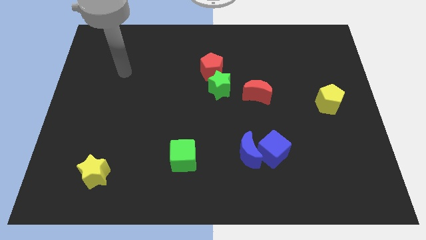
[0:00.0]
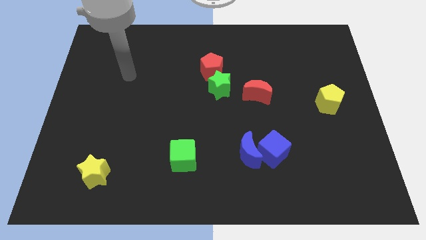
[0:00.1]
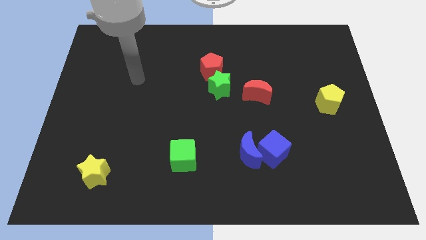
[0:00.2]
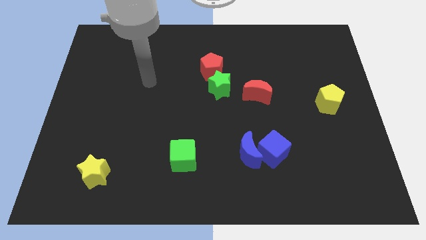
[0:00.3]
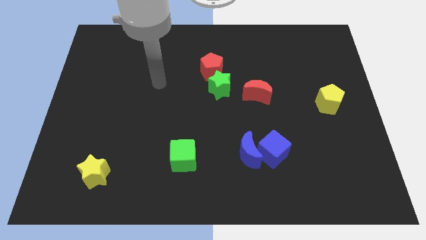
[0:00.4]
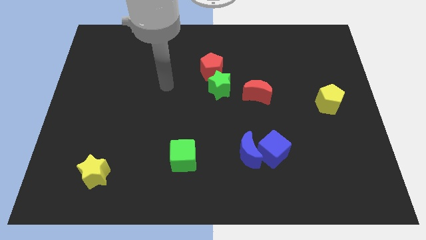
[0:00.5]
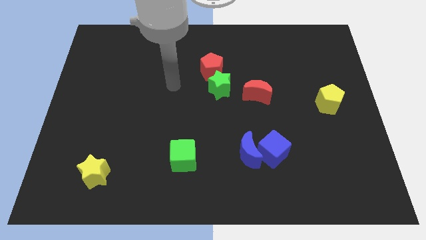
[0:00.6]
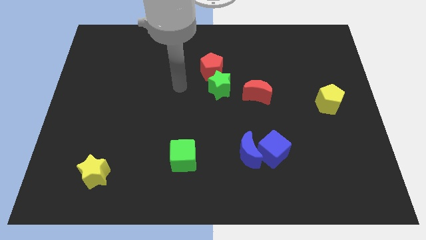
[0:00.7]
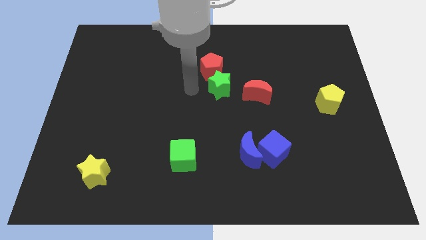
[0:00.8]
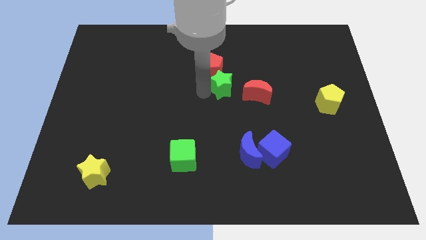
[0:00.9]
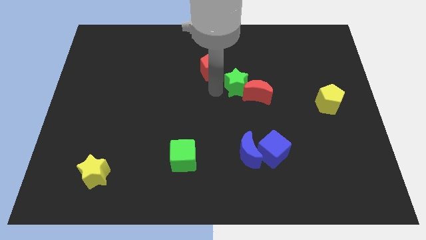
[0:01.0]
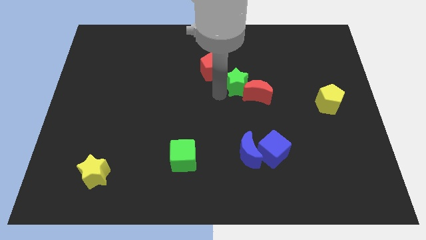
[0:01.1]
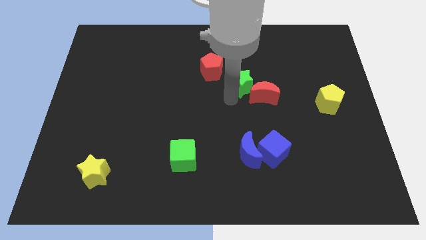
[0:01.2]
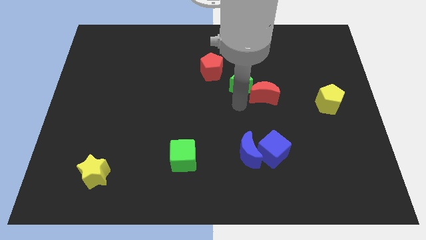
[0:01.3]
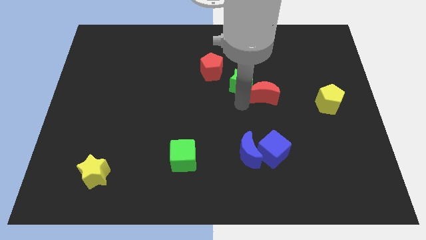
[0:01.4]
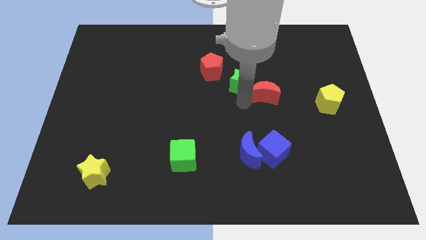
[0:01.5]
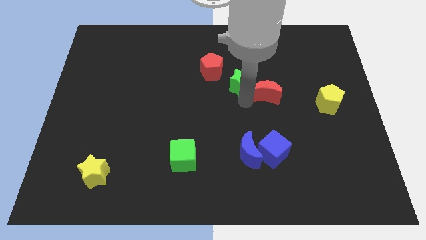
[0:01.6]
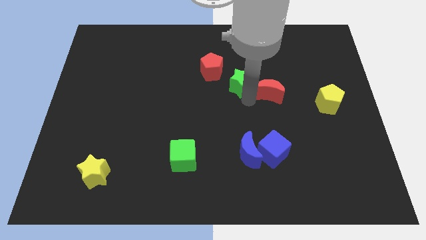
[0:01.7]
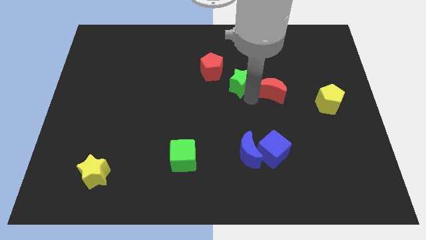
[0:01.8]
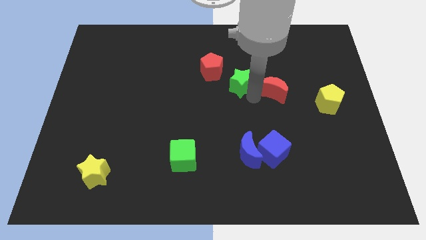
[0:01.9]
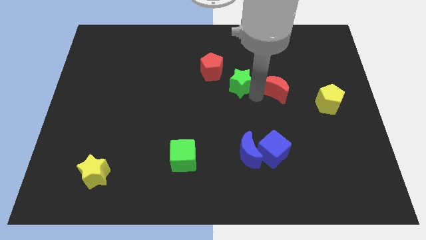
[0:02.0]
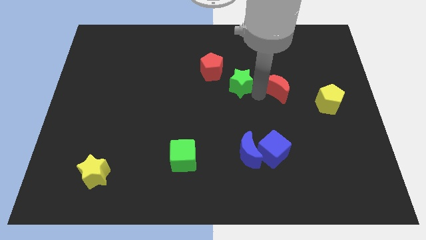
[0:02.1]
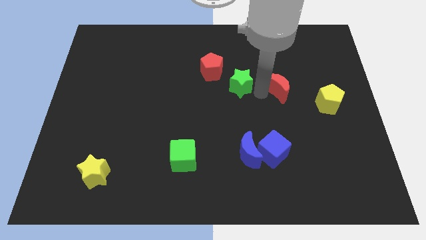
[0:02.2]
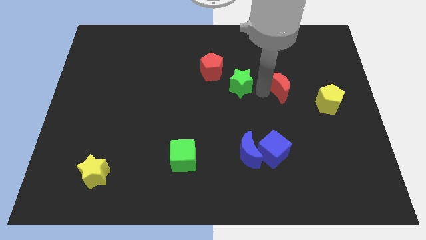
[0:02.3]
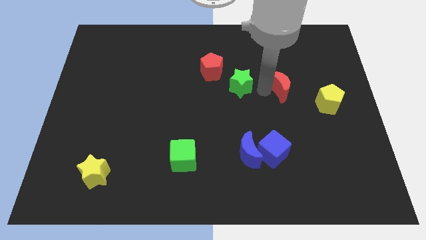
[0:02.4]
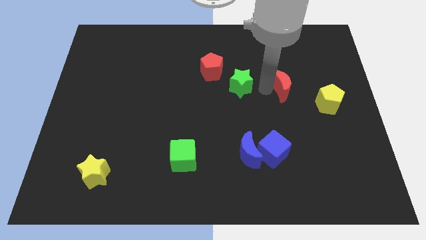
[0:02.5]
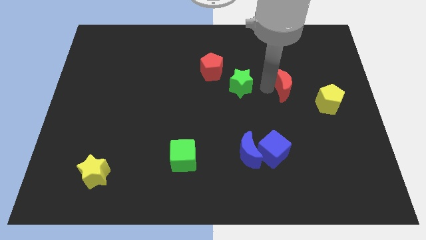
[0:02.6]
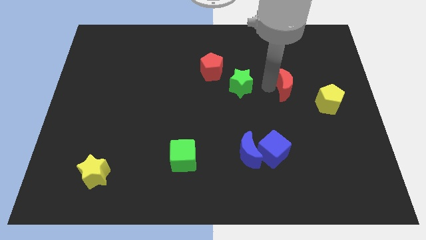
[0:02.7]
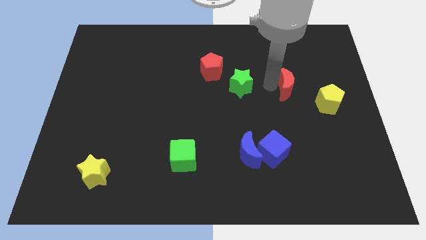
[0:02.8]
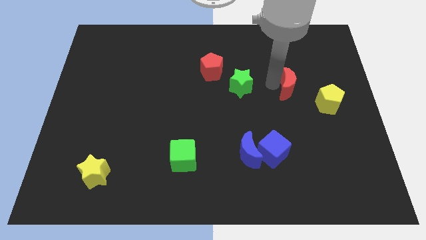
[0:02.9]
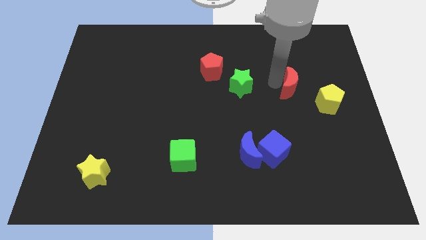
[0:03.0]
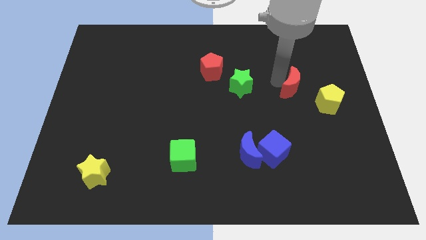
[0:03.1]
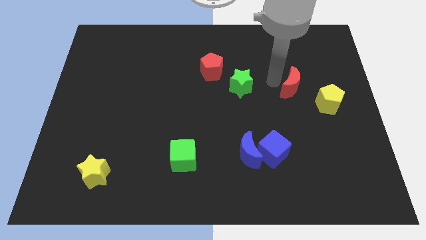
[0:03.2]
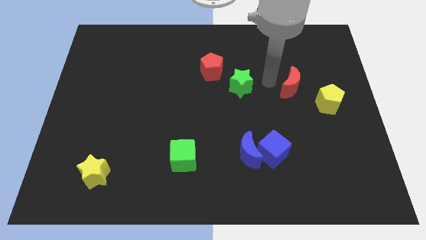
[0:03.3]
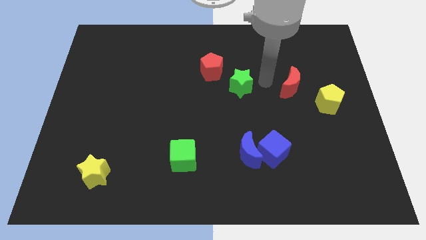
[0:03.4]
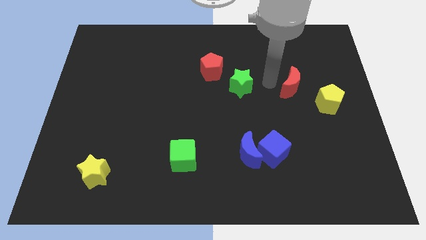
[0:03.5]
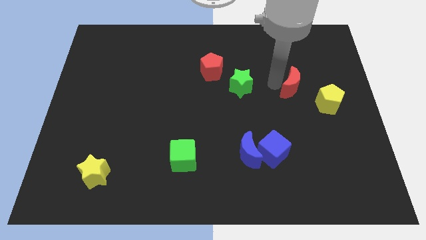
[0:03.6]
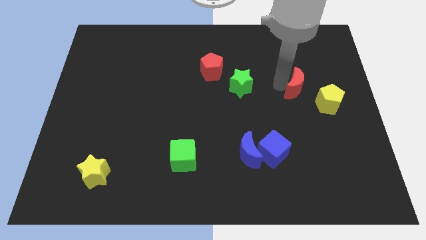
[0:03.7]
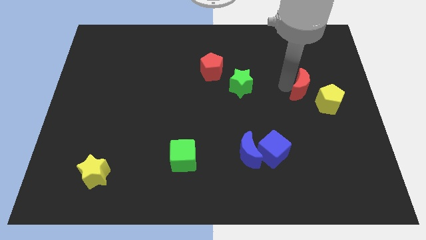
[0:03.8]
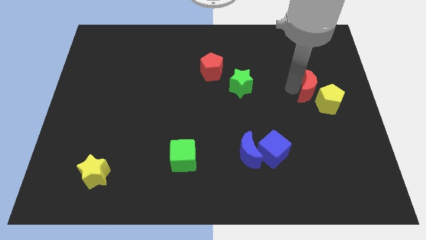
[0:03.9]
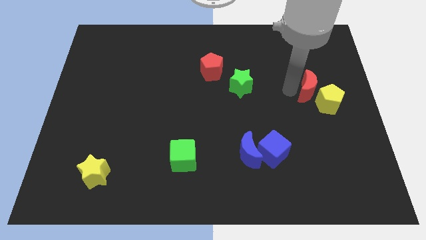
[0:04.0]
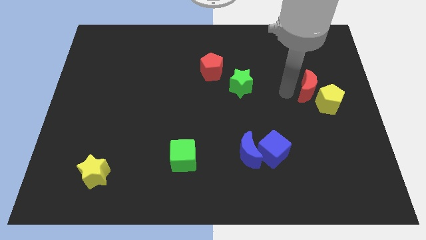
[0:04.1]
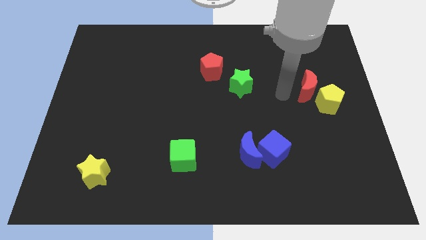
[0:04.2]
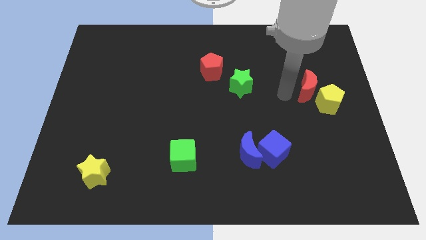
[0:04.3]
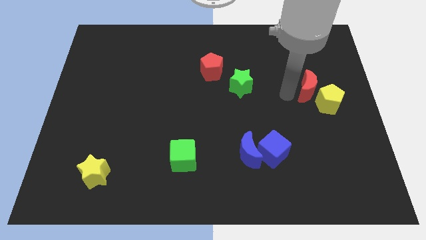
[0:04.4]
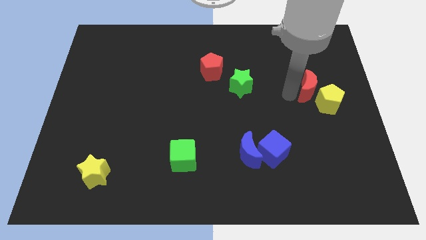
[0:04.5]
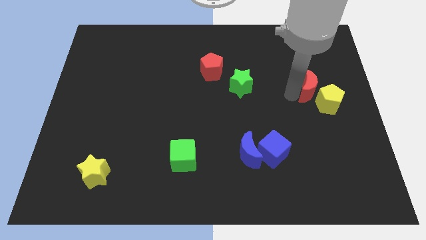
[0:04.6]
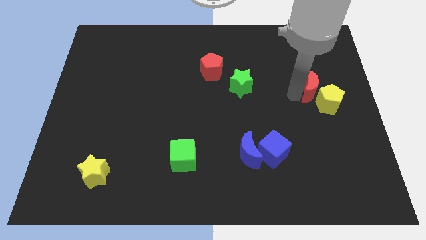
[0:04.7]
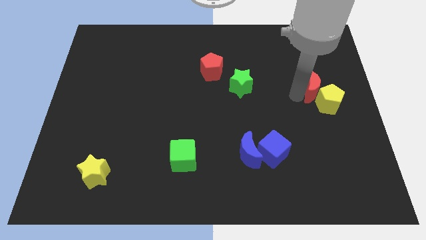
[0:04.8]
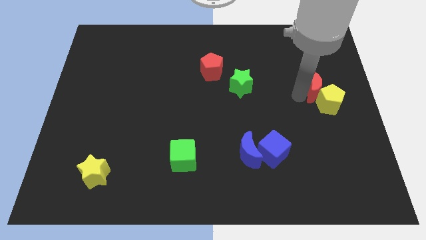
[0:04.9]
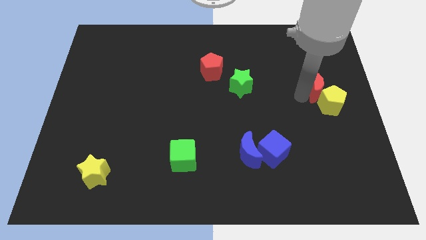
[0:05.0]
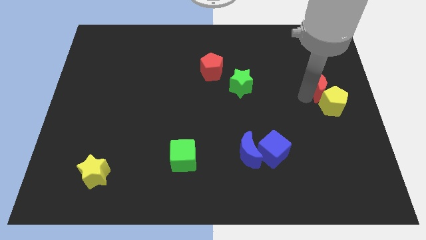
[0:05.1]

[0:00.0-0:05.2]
slide the red moon to the center right

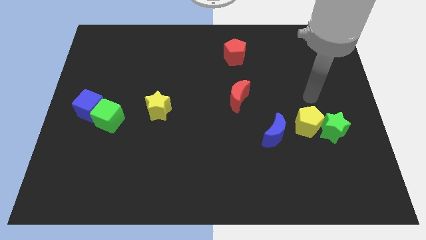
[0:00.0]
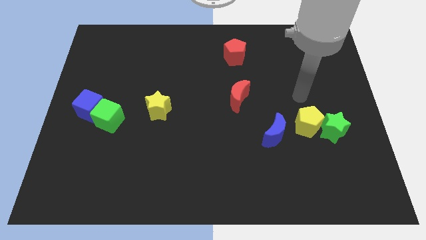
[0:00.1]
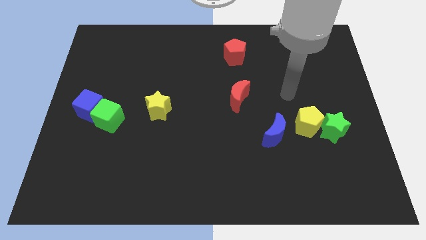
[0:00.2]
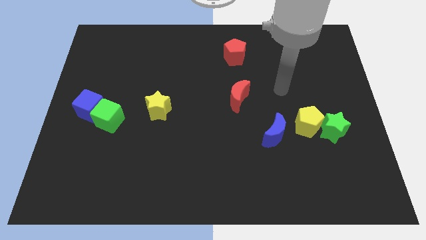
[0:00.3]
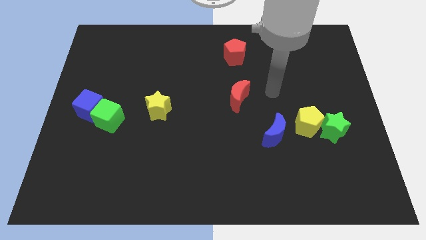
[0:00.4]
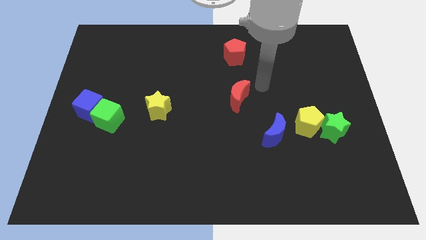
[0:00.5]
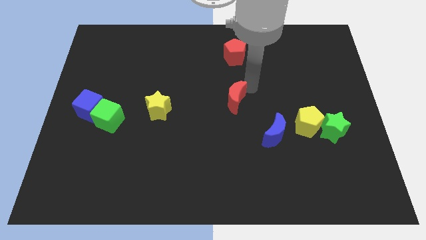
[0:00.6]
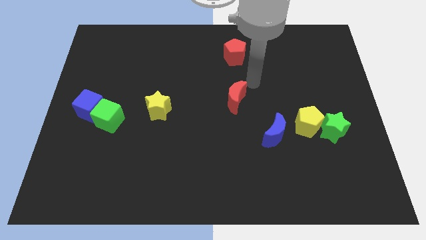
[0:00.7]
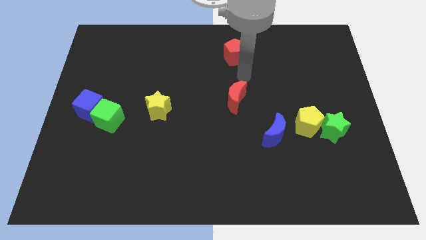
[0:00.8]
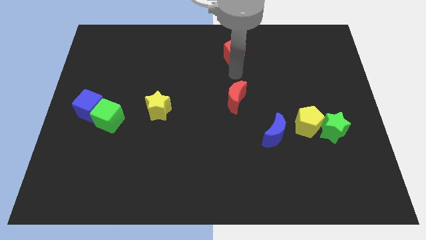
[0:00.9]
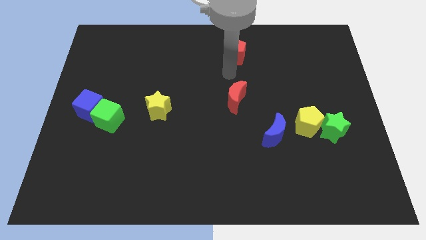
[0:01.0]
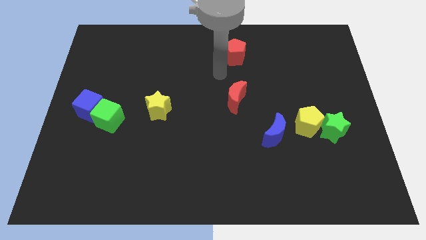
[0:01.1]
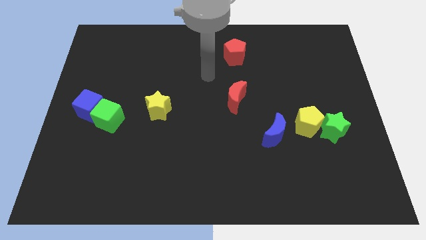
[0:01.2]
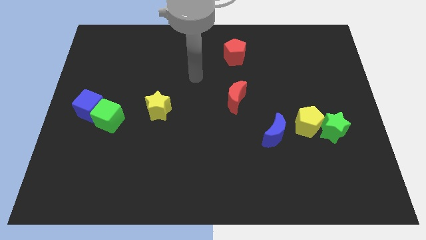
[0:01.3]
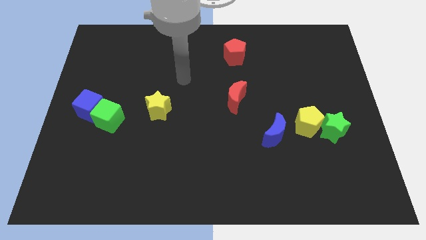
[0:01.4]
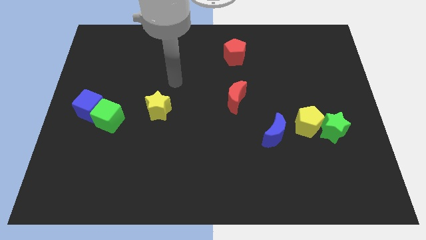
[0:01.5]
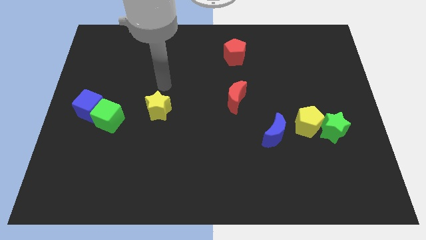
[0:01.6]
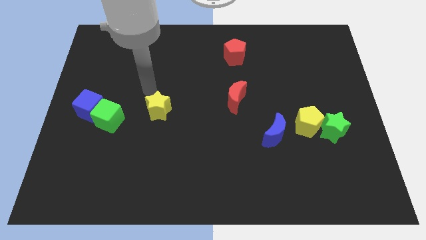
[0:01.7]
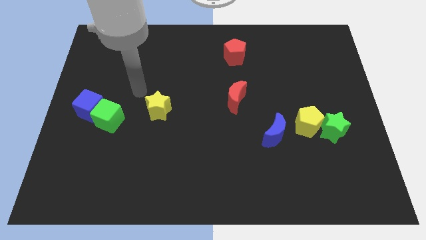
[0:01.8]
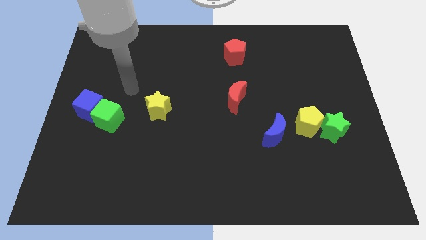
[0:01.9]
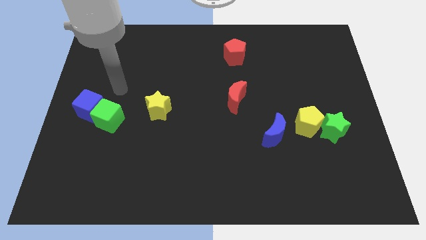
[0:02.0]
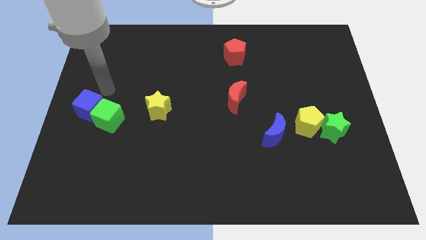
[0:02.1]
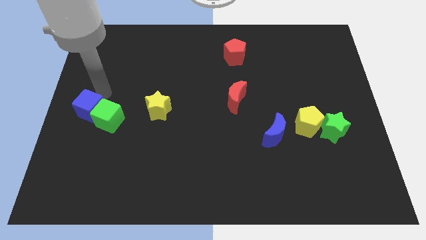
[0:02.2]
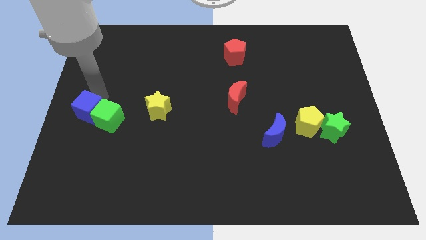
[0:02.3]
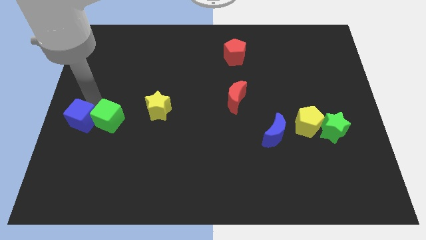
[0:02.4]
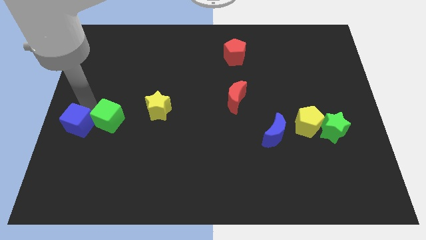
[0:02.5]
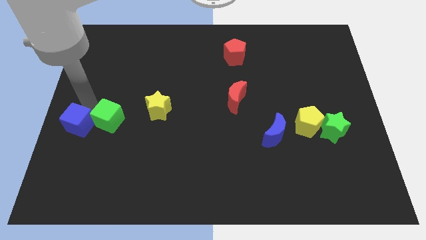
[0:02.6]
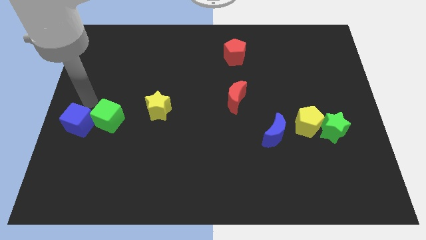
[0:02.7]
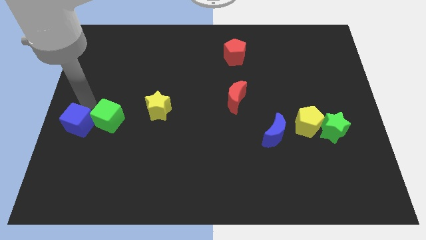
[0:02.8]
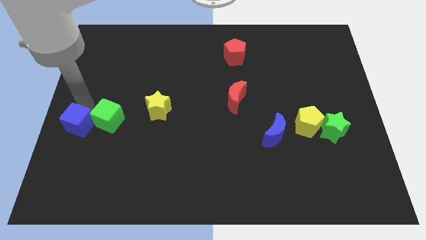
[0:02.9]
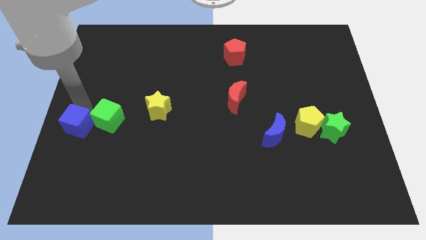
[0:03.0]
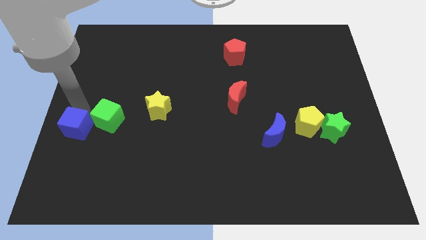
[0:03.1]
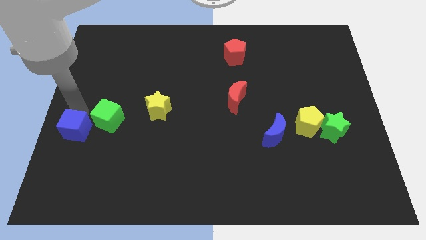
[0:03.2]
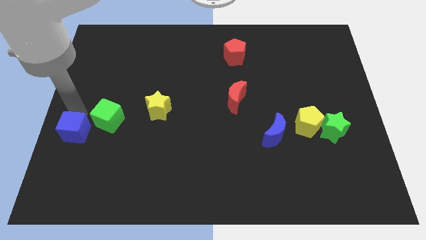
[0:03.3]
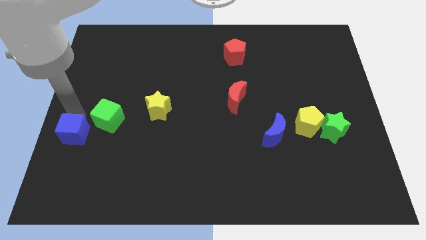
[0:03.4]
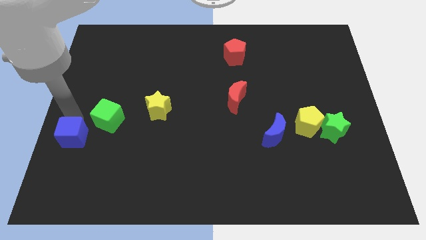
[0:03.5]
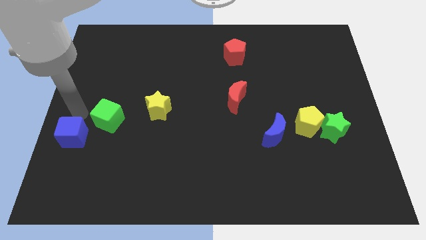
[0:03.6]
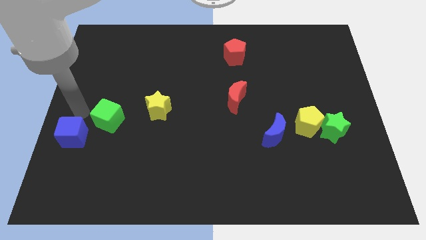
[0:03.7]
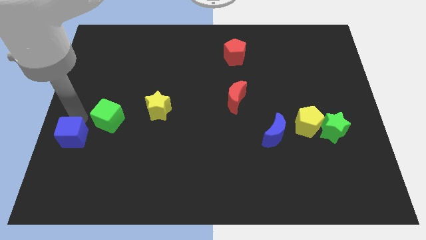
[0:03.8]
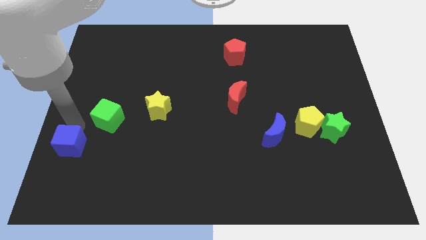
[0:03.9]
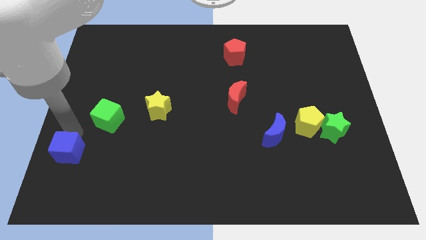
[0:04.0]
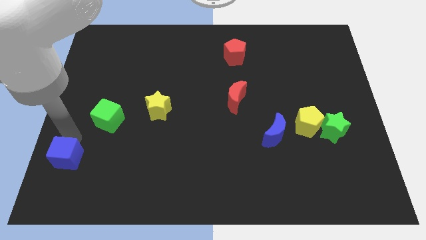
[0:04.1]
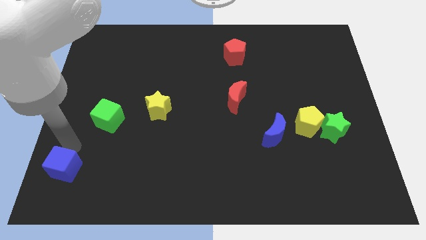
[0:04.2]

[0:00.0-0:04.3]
put the blue cube to the bottom left corner
